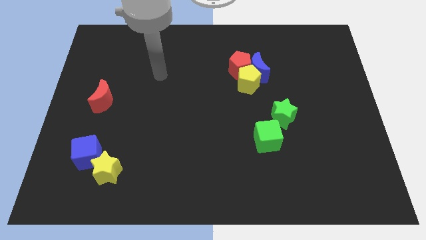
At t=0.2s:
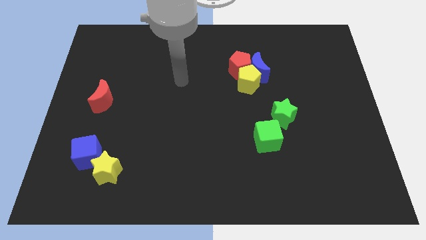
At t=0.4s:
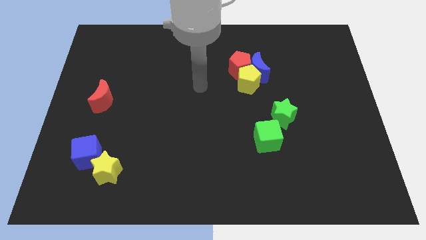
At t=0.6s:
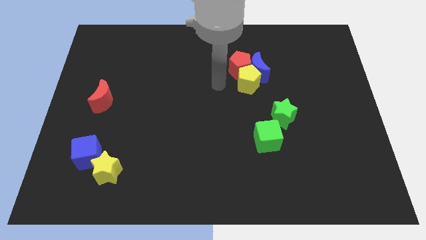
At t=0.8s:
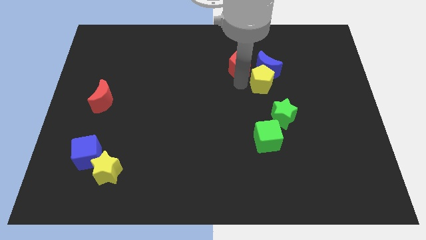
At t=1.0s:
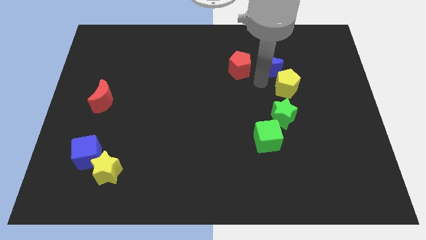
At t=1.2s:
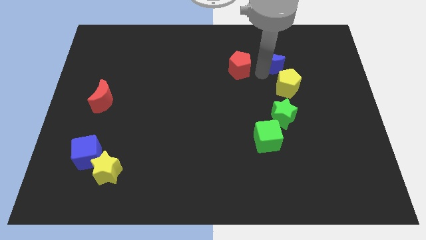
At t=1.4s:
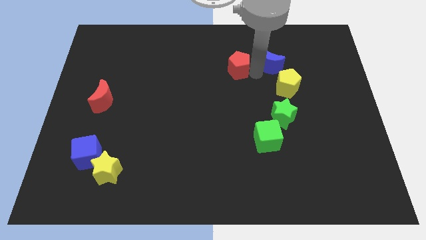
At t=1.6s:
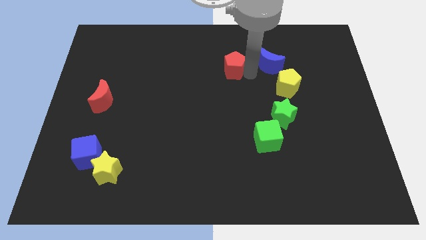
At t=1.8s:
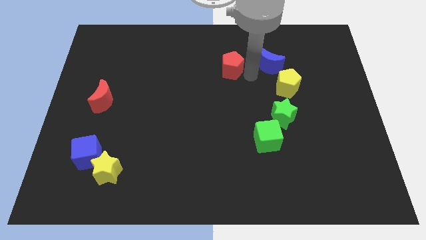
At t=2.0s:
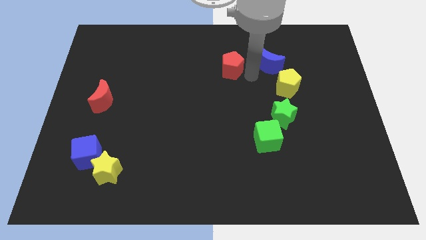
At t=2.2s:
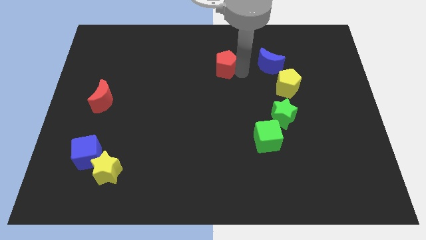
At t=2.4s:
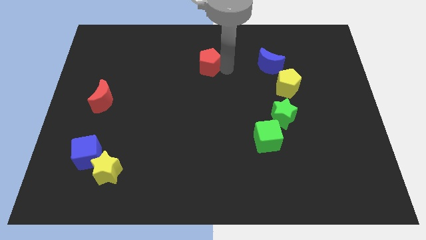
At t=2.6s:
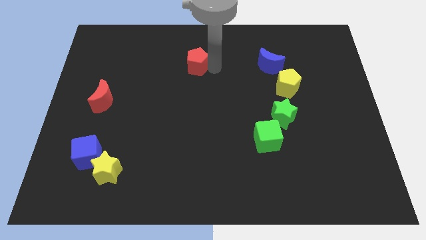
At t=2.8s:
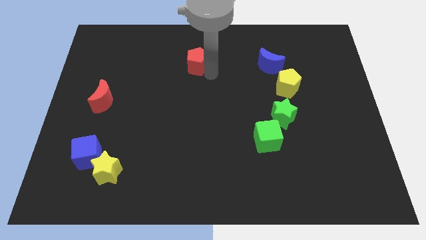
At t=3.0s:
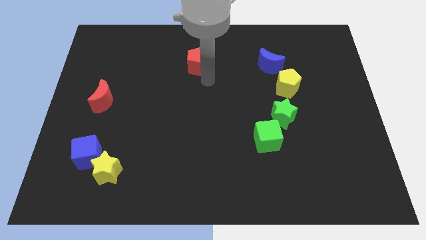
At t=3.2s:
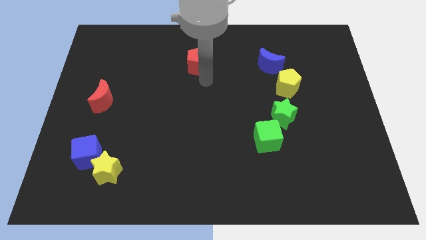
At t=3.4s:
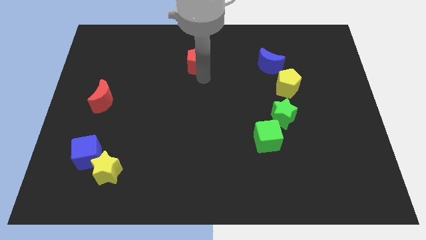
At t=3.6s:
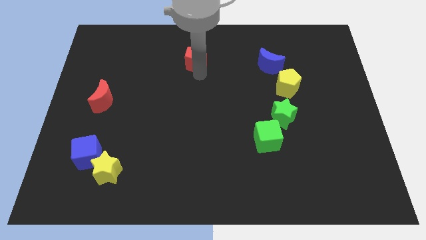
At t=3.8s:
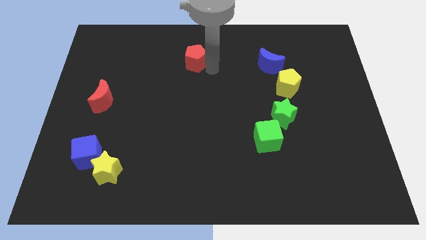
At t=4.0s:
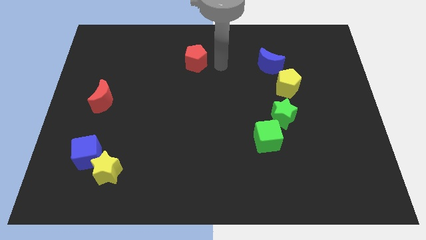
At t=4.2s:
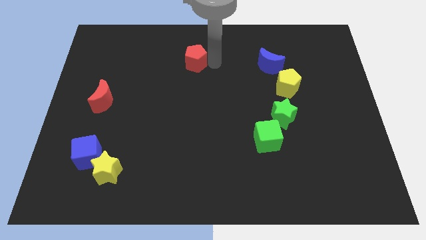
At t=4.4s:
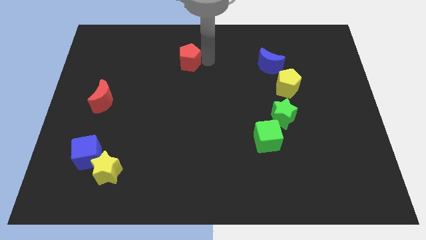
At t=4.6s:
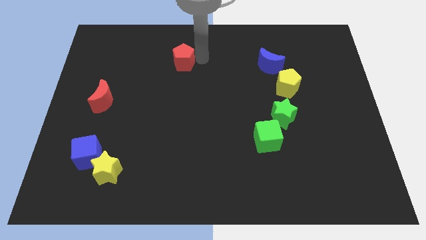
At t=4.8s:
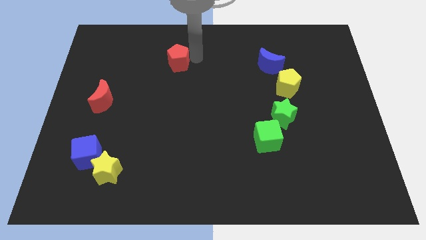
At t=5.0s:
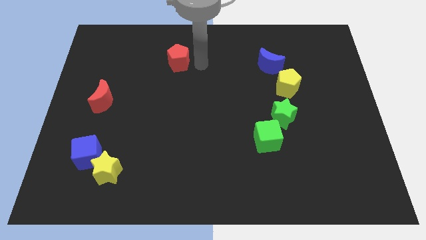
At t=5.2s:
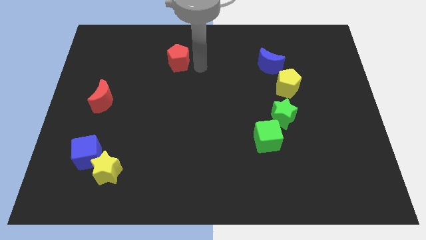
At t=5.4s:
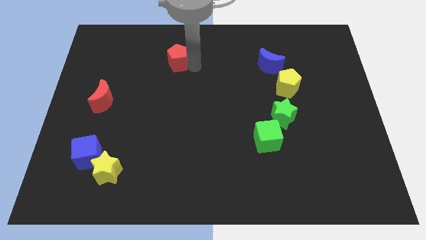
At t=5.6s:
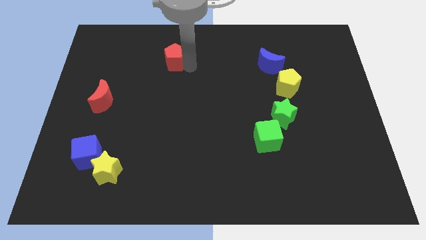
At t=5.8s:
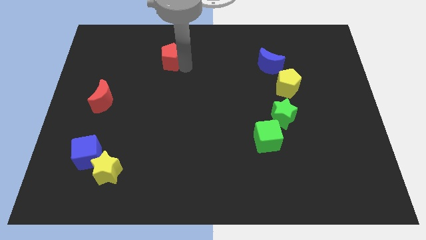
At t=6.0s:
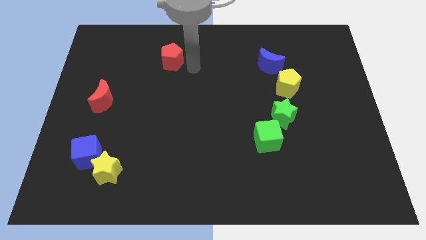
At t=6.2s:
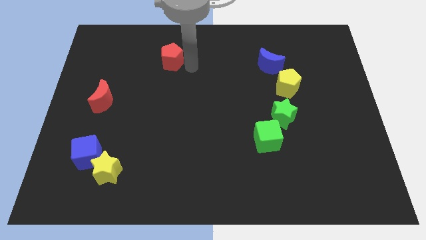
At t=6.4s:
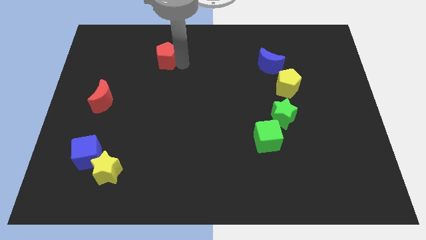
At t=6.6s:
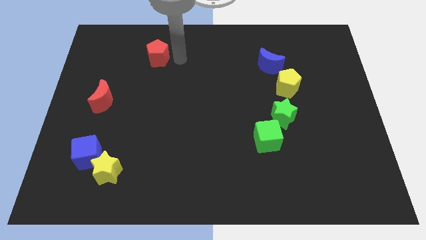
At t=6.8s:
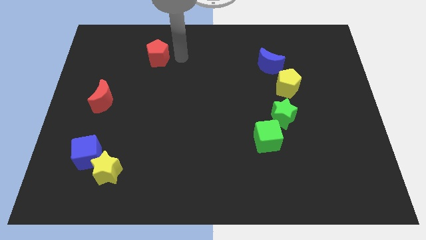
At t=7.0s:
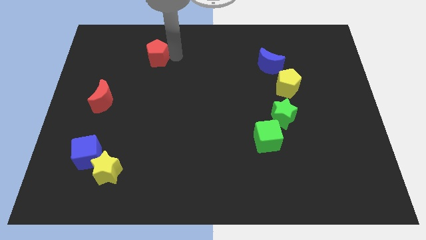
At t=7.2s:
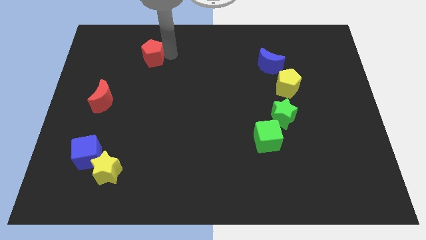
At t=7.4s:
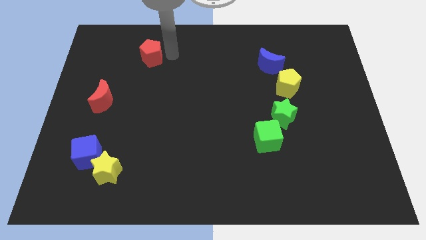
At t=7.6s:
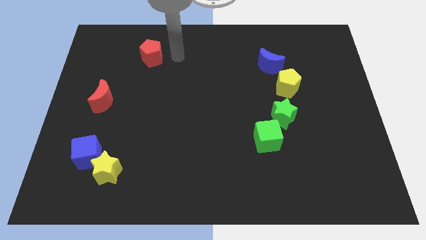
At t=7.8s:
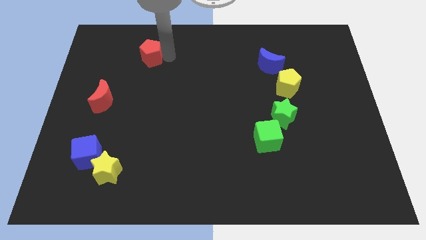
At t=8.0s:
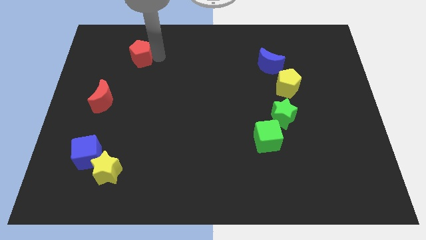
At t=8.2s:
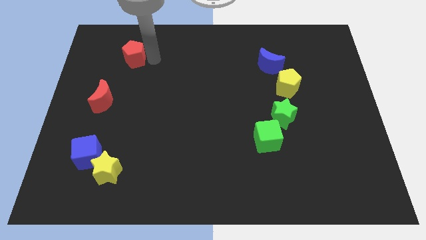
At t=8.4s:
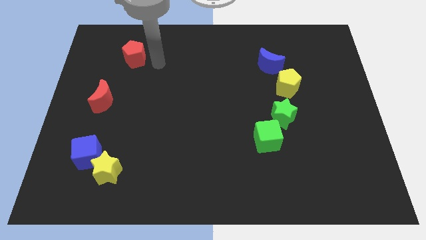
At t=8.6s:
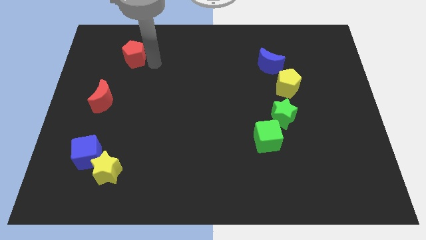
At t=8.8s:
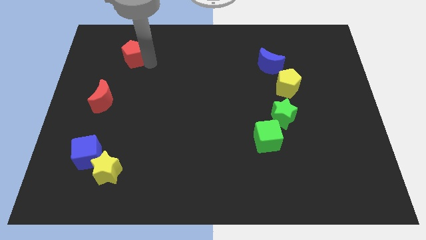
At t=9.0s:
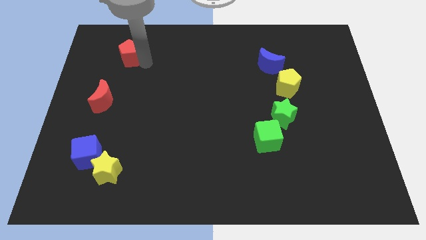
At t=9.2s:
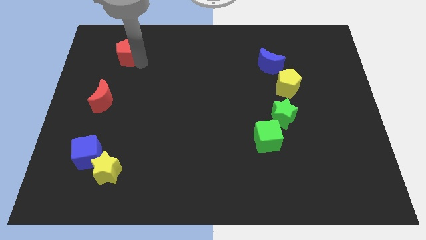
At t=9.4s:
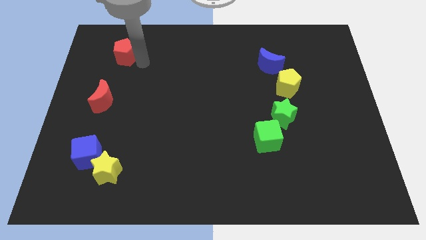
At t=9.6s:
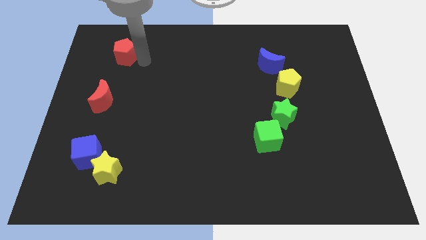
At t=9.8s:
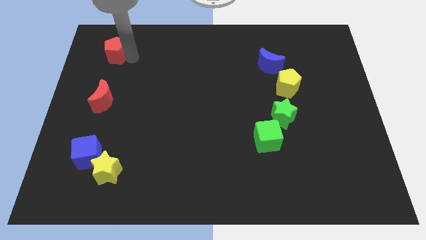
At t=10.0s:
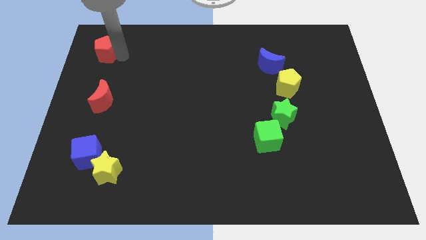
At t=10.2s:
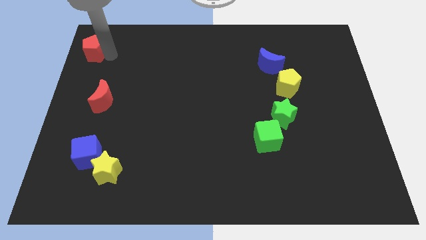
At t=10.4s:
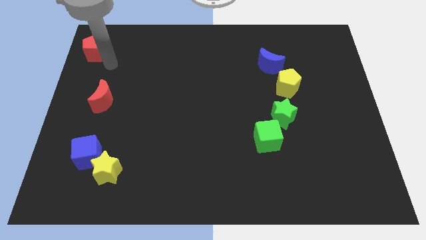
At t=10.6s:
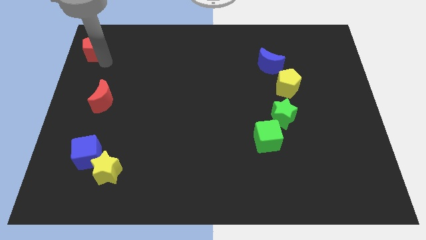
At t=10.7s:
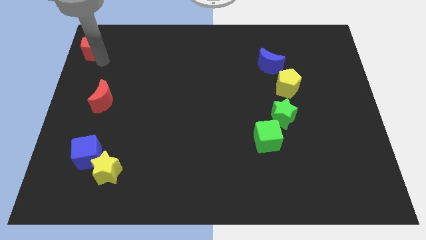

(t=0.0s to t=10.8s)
put the red pentagon to the top left corner

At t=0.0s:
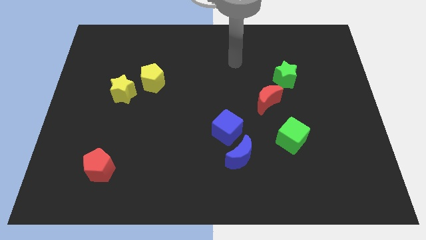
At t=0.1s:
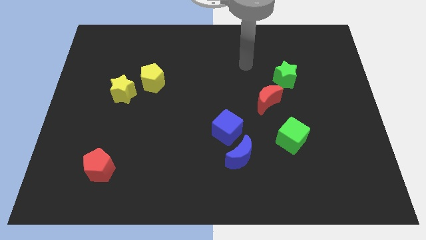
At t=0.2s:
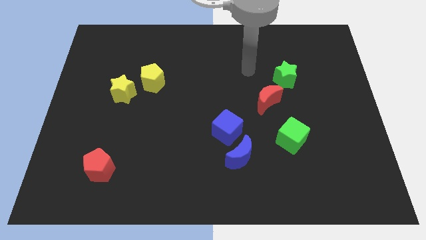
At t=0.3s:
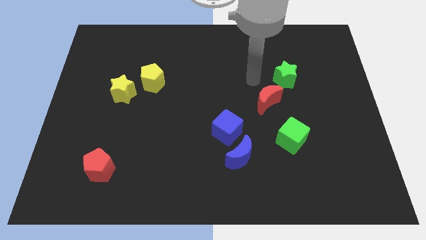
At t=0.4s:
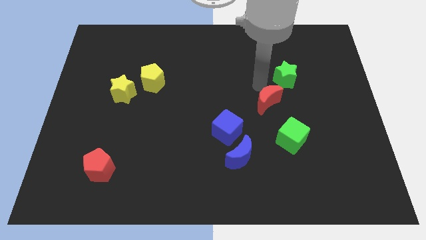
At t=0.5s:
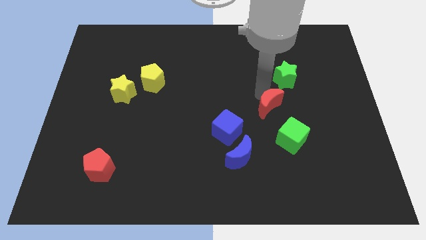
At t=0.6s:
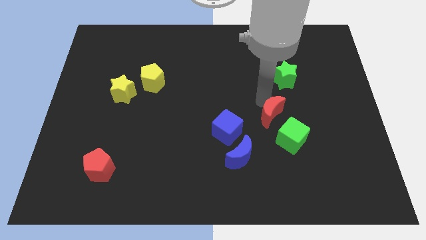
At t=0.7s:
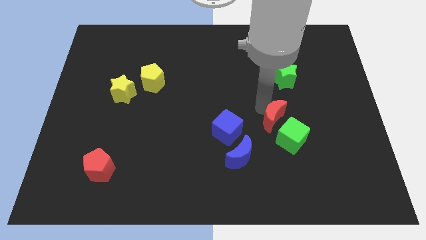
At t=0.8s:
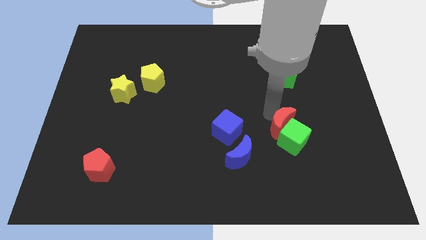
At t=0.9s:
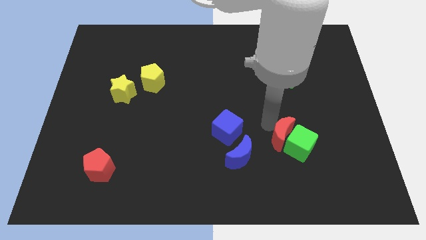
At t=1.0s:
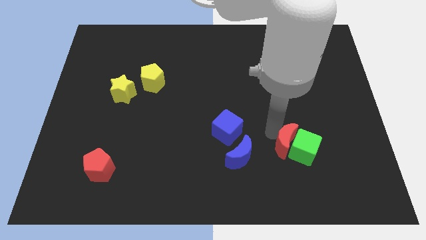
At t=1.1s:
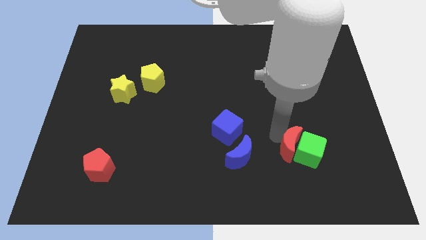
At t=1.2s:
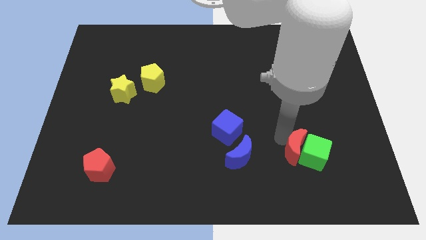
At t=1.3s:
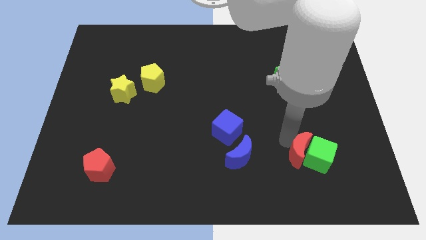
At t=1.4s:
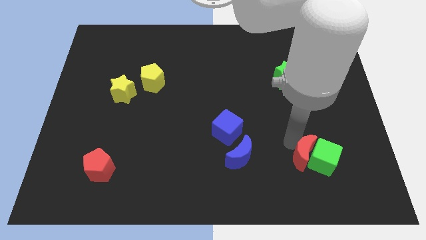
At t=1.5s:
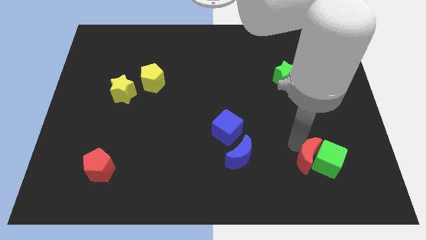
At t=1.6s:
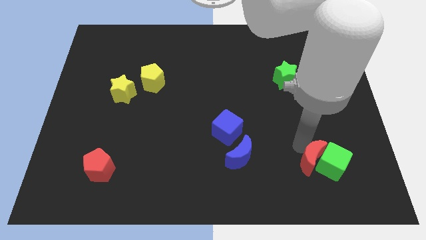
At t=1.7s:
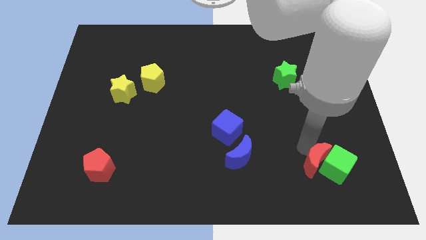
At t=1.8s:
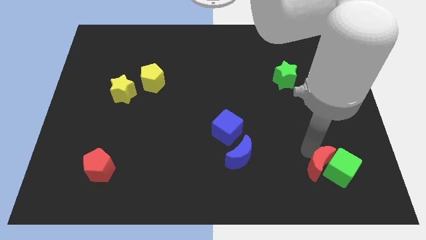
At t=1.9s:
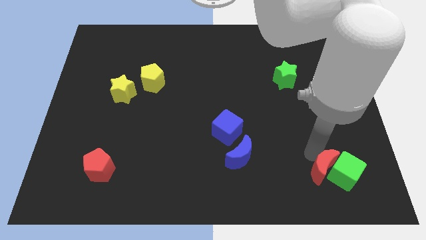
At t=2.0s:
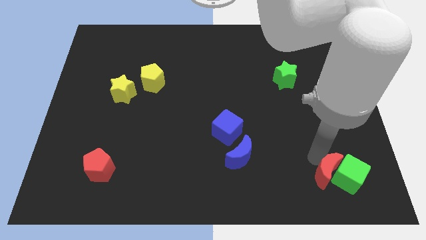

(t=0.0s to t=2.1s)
push the green cube to the bottom right
